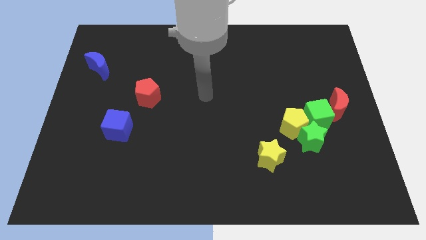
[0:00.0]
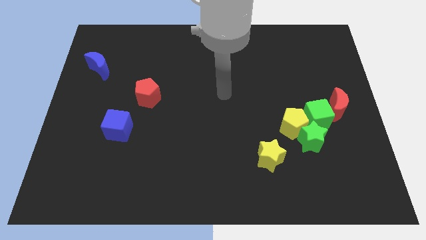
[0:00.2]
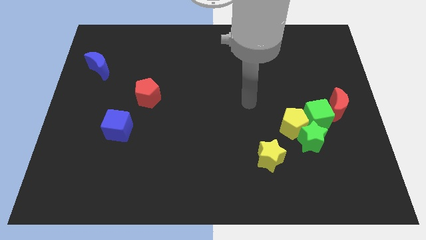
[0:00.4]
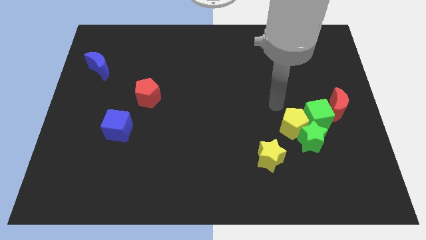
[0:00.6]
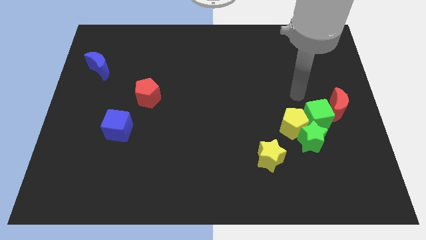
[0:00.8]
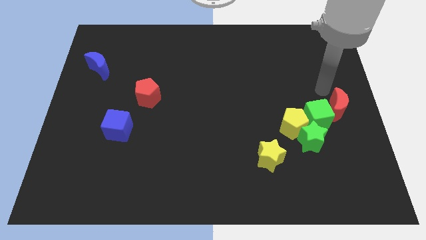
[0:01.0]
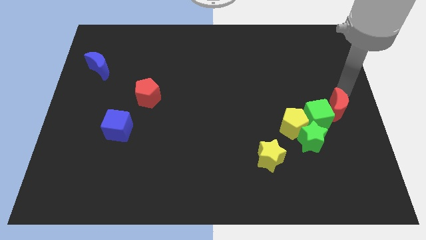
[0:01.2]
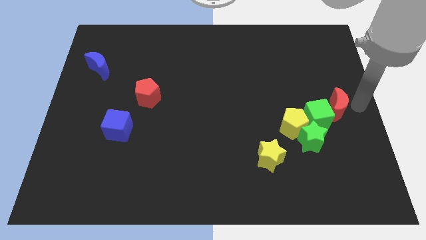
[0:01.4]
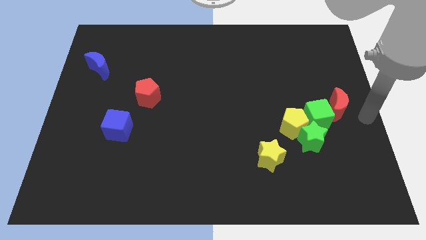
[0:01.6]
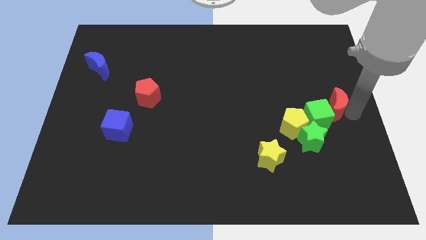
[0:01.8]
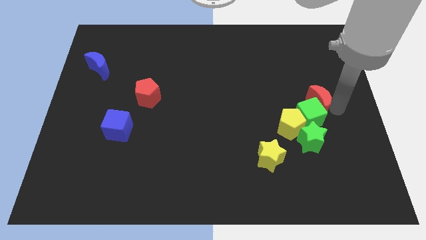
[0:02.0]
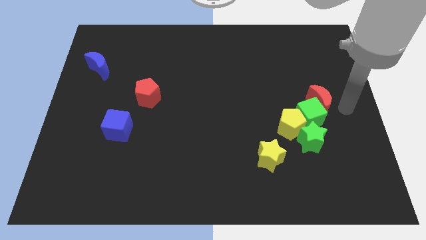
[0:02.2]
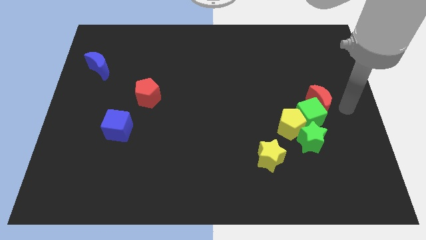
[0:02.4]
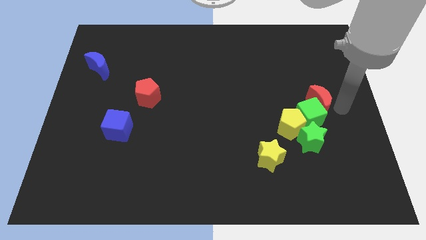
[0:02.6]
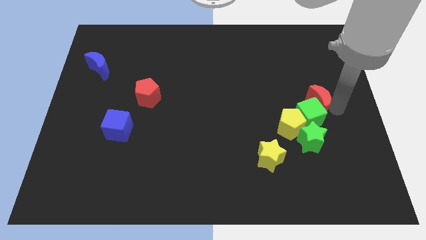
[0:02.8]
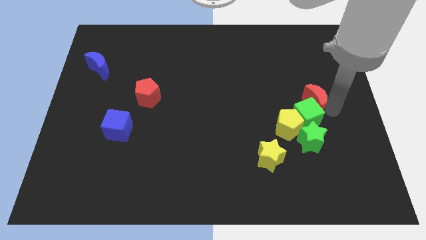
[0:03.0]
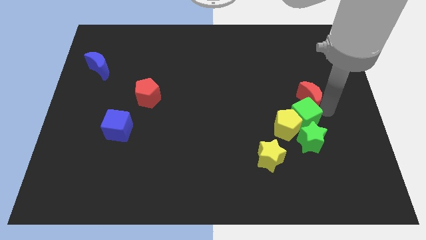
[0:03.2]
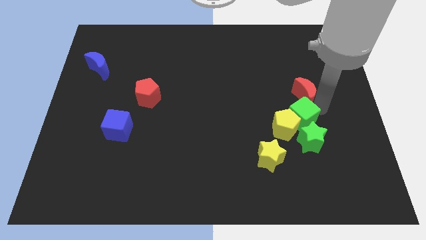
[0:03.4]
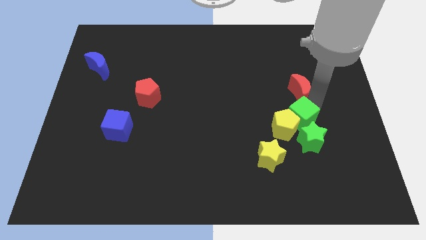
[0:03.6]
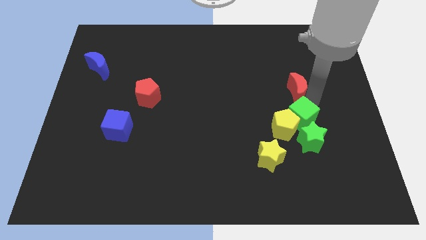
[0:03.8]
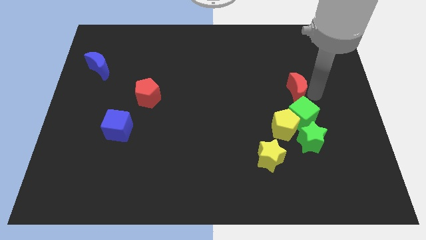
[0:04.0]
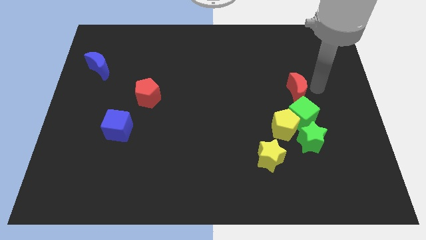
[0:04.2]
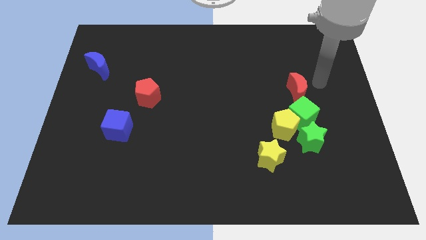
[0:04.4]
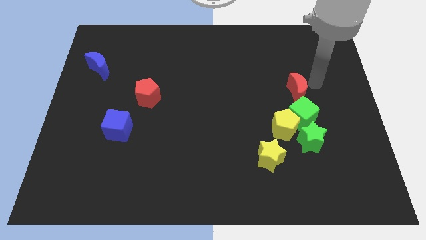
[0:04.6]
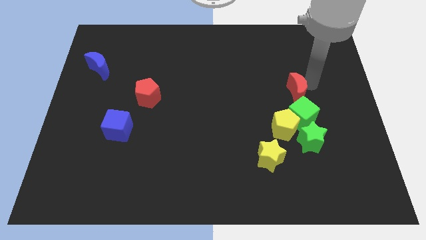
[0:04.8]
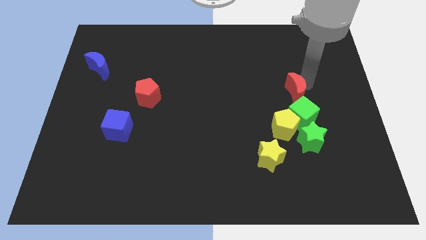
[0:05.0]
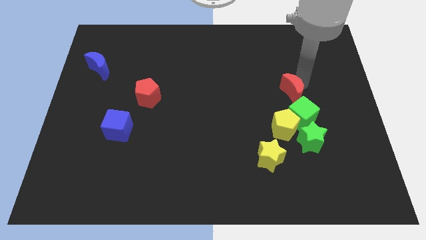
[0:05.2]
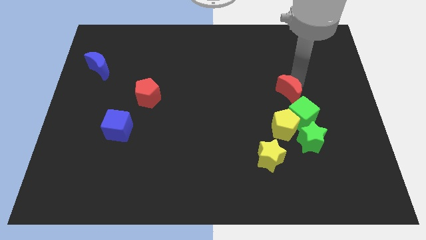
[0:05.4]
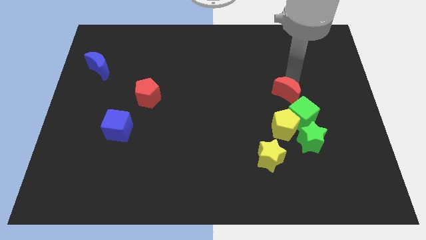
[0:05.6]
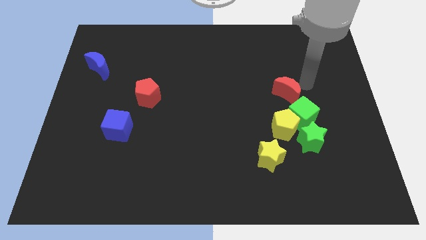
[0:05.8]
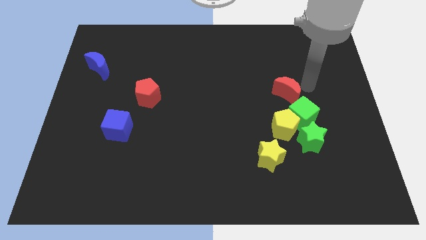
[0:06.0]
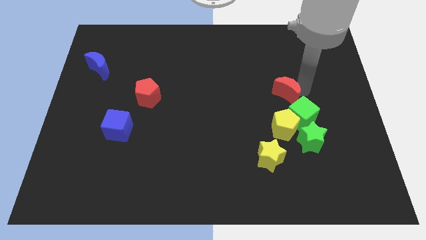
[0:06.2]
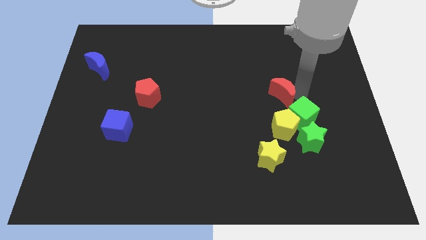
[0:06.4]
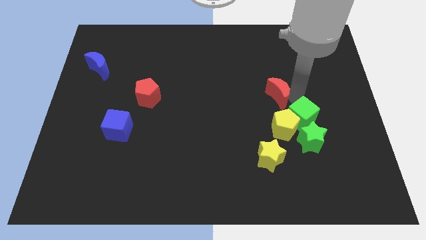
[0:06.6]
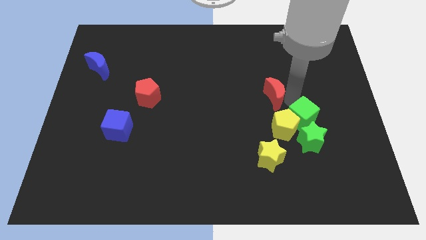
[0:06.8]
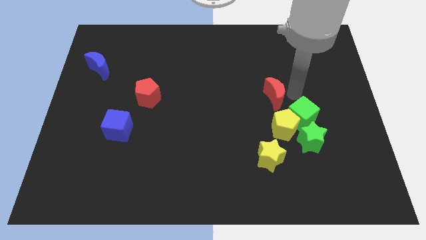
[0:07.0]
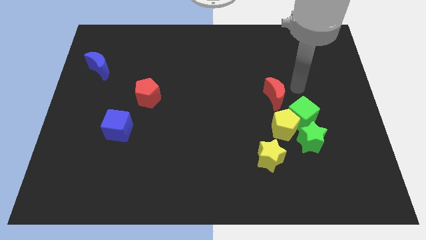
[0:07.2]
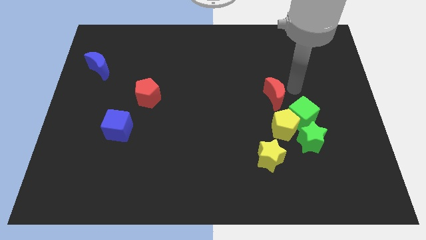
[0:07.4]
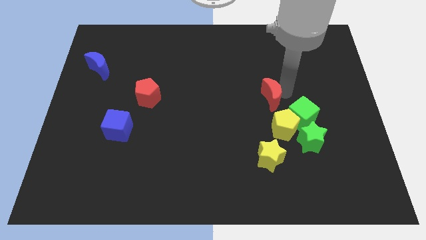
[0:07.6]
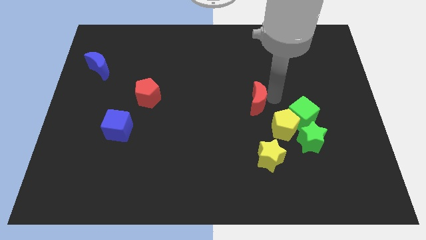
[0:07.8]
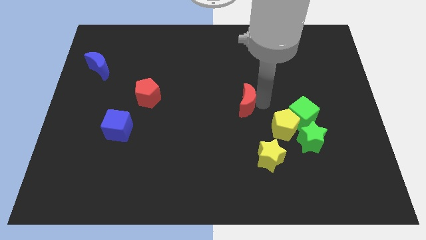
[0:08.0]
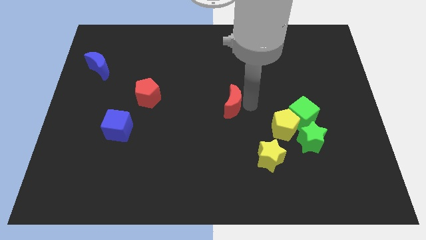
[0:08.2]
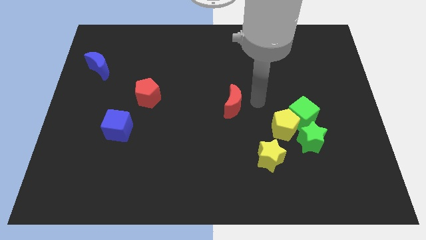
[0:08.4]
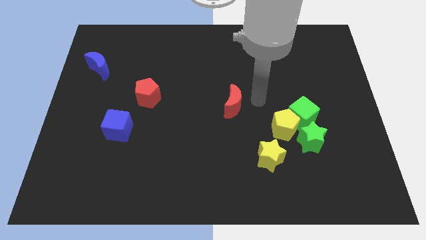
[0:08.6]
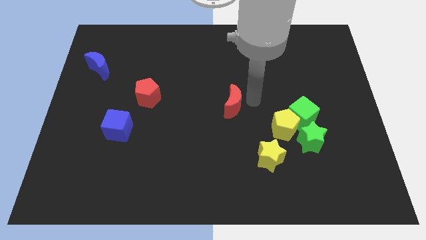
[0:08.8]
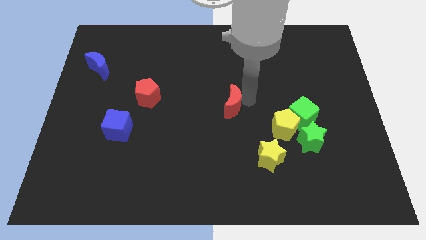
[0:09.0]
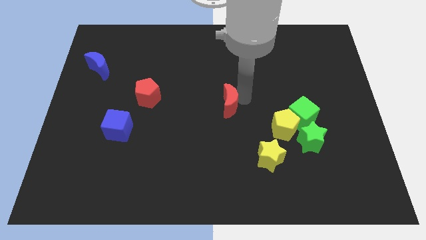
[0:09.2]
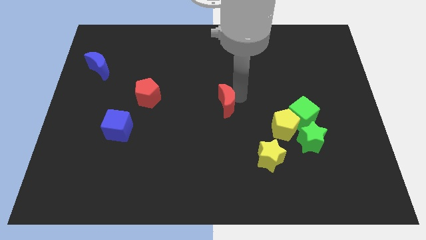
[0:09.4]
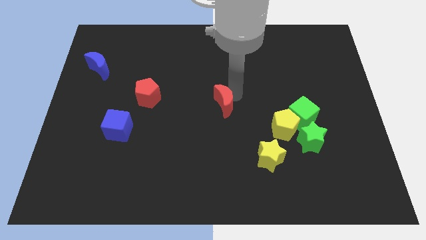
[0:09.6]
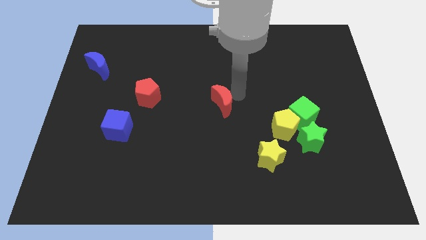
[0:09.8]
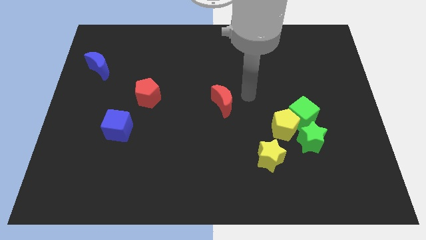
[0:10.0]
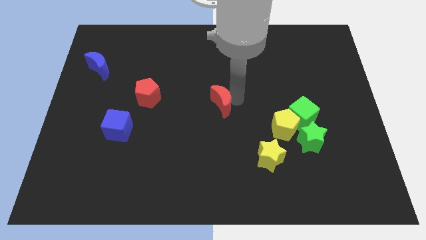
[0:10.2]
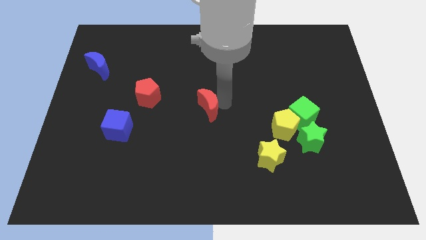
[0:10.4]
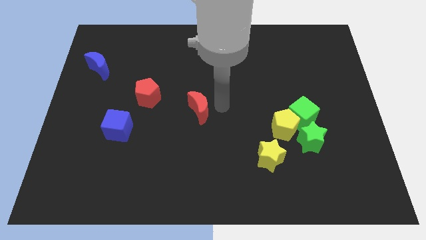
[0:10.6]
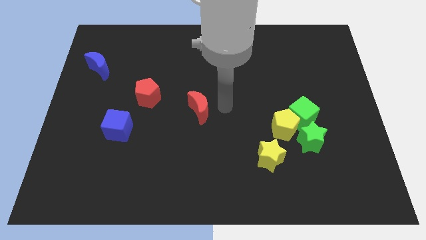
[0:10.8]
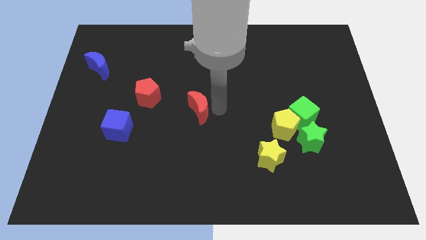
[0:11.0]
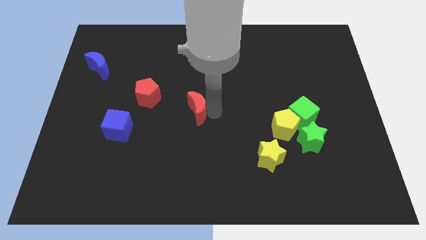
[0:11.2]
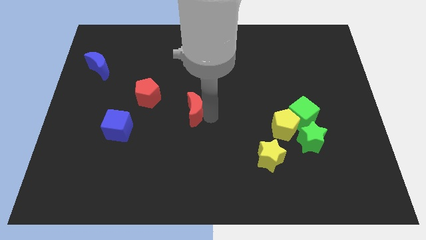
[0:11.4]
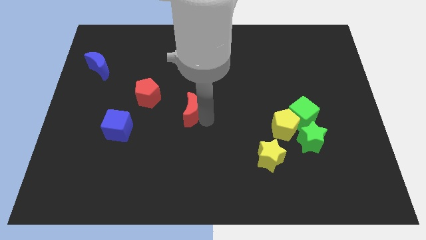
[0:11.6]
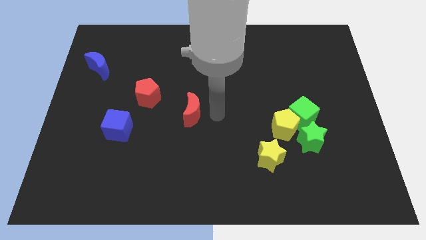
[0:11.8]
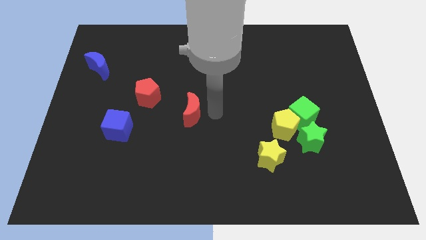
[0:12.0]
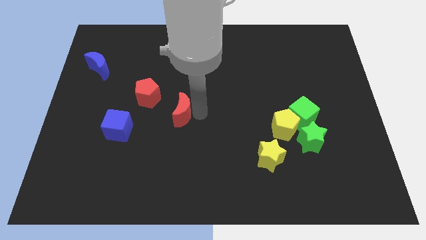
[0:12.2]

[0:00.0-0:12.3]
push the red moon to the bottom right side of the red pentagon
